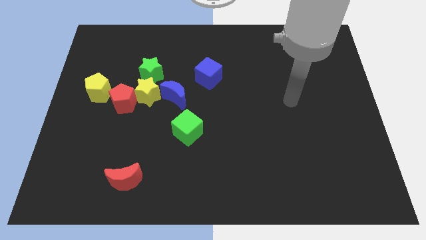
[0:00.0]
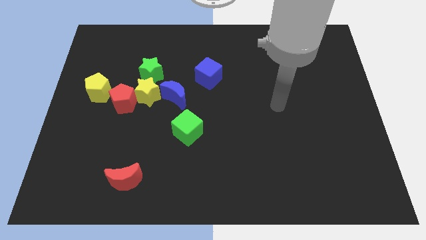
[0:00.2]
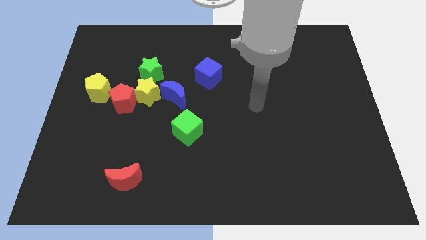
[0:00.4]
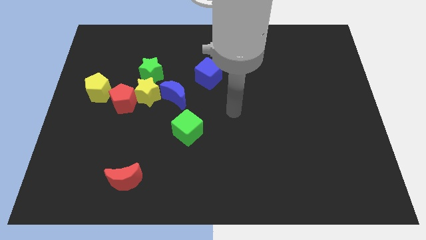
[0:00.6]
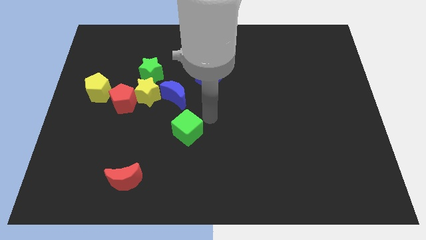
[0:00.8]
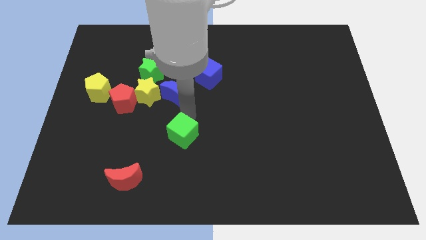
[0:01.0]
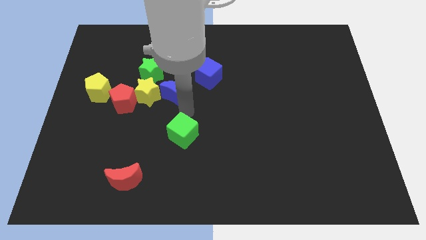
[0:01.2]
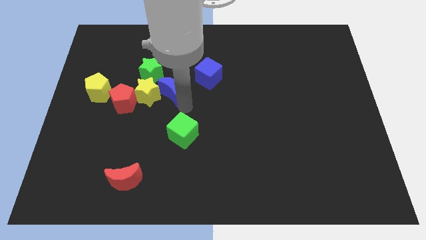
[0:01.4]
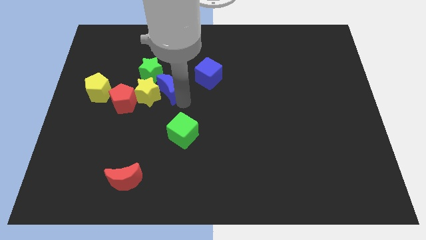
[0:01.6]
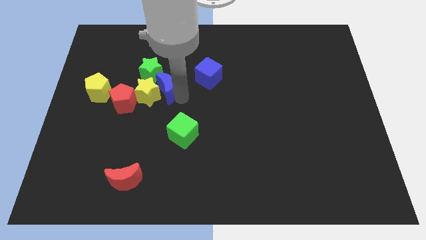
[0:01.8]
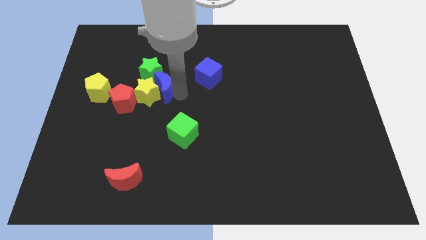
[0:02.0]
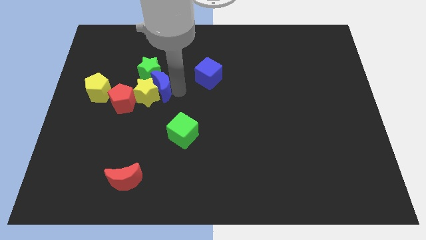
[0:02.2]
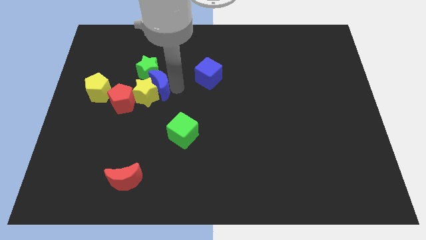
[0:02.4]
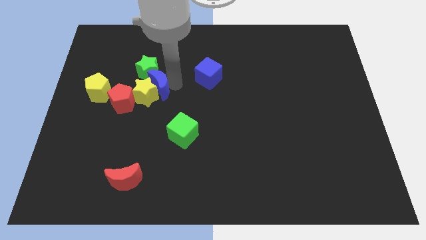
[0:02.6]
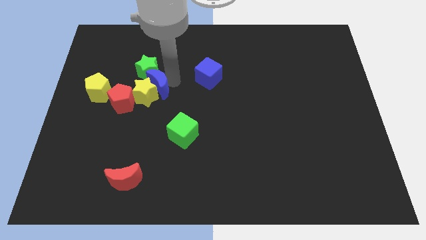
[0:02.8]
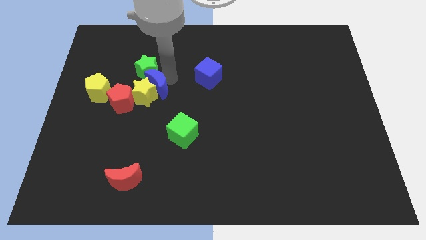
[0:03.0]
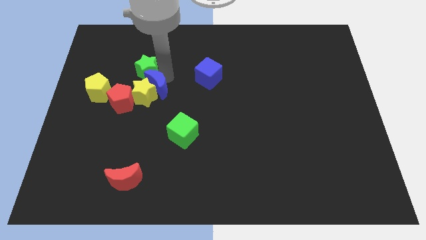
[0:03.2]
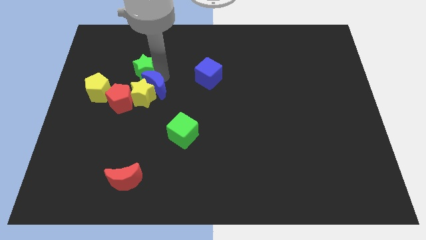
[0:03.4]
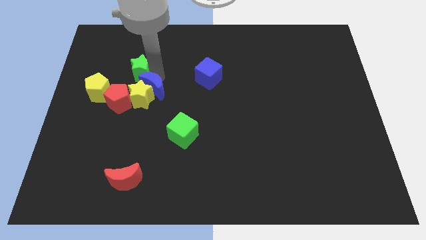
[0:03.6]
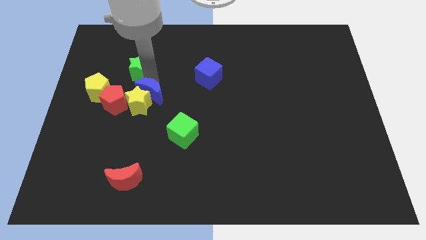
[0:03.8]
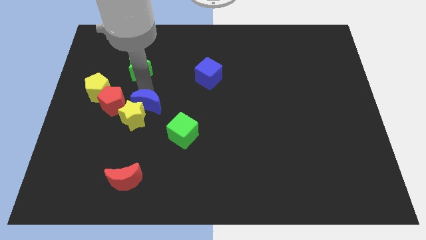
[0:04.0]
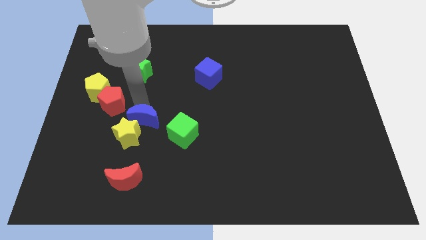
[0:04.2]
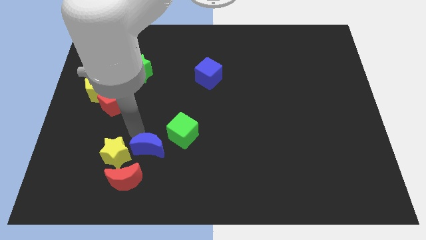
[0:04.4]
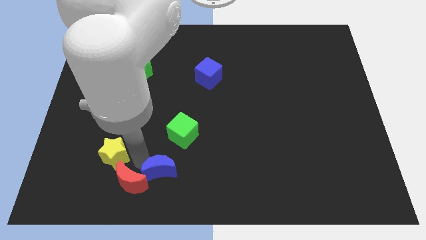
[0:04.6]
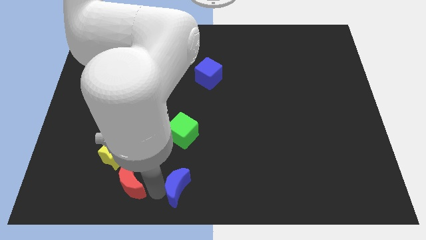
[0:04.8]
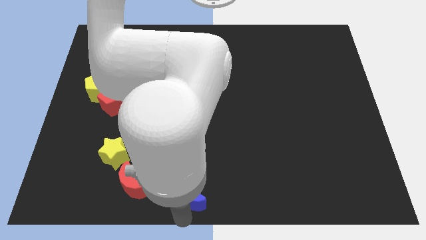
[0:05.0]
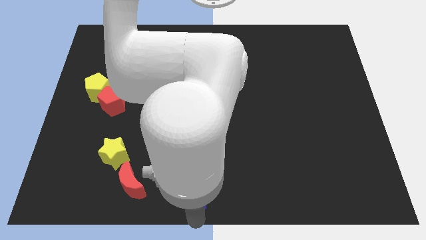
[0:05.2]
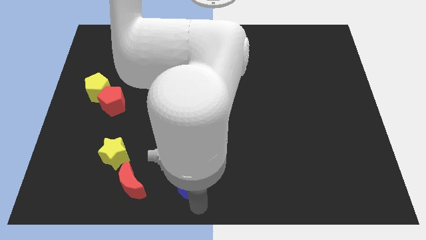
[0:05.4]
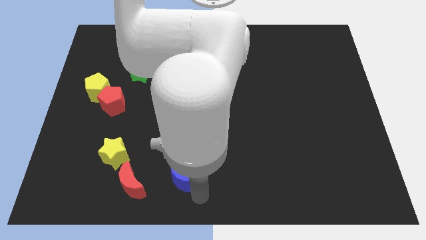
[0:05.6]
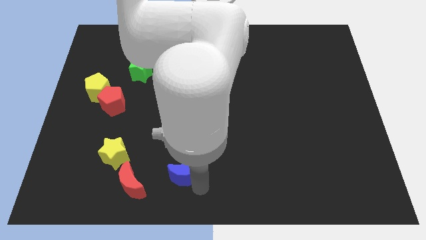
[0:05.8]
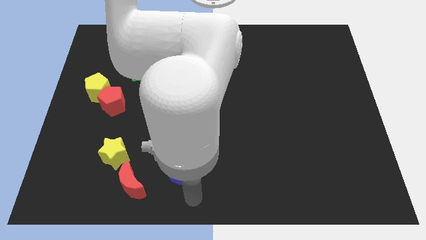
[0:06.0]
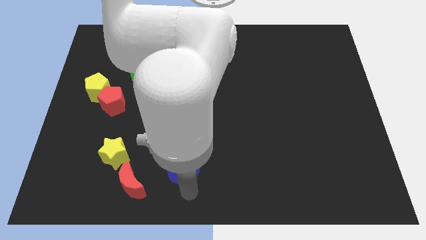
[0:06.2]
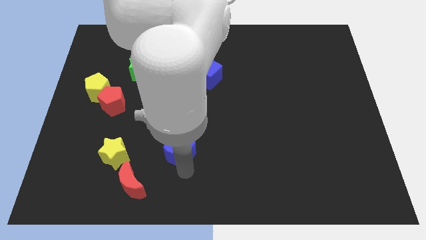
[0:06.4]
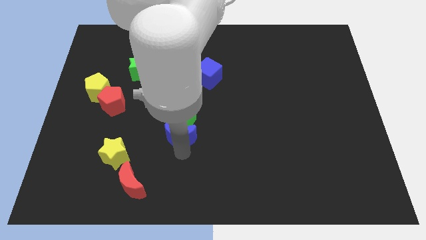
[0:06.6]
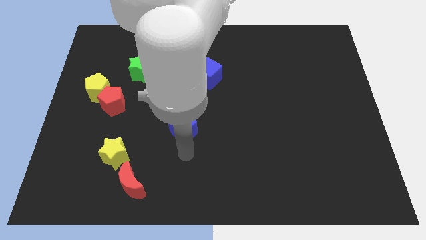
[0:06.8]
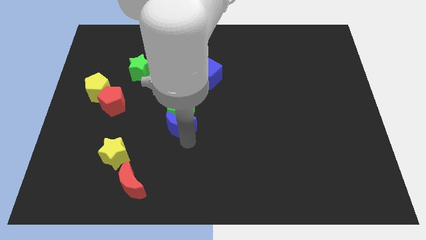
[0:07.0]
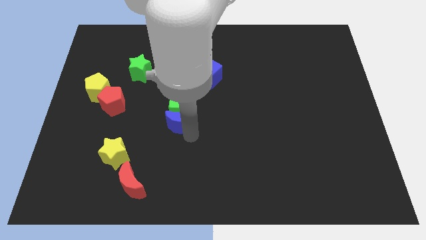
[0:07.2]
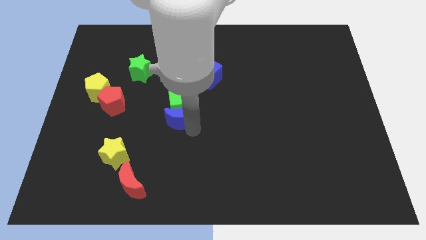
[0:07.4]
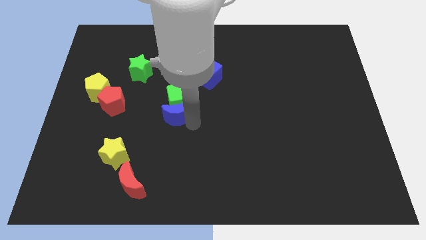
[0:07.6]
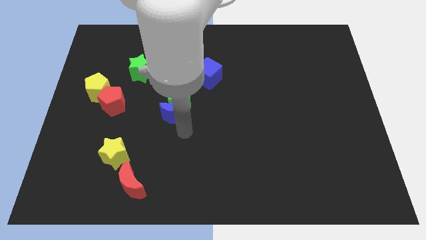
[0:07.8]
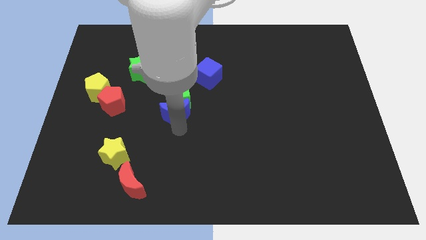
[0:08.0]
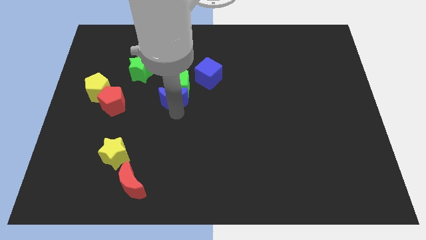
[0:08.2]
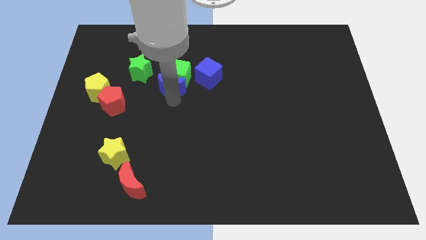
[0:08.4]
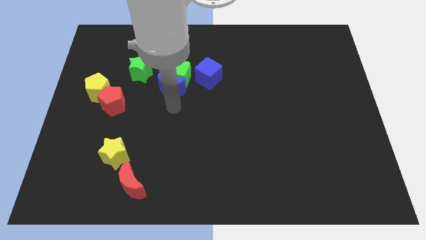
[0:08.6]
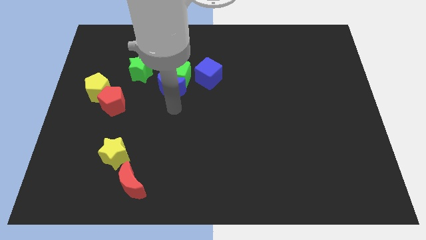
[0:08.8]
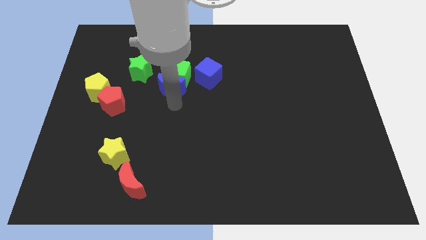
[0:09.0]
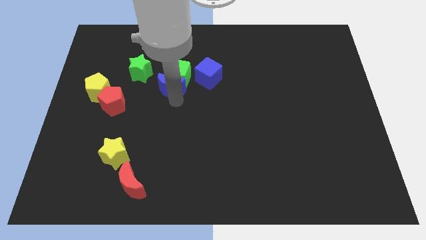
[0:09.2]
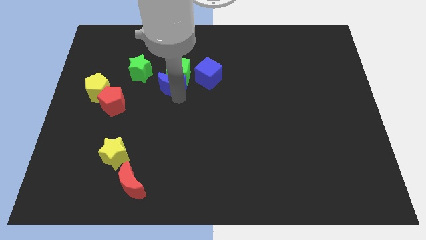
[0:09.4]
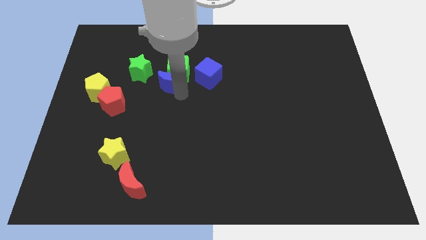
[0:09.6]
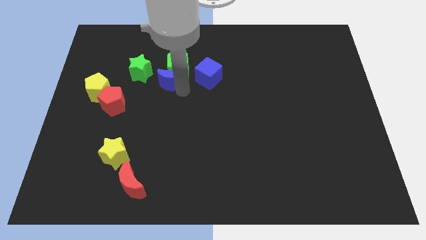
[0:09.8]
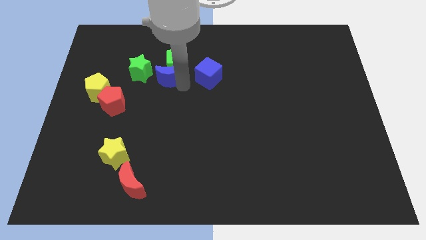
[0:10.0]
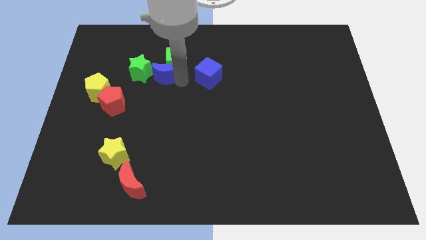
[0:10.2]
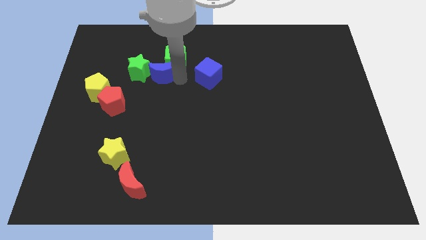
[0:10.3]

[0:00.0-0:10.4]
move the blue moon up and left diagonally a little bit

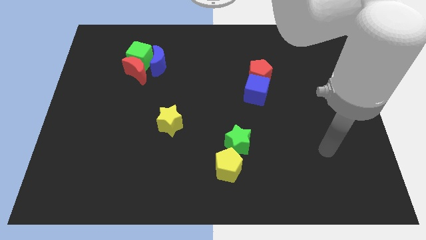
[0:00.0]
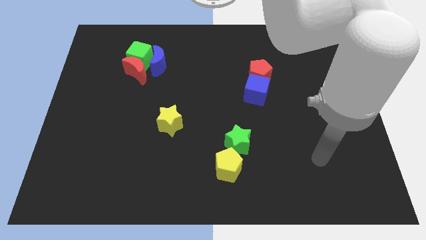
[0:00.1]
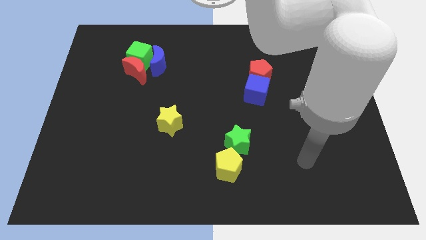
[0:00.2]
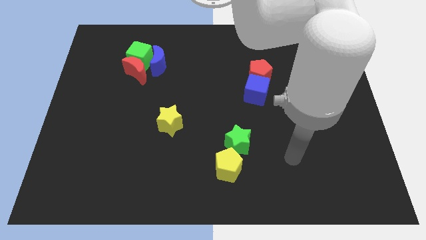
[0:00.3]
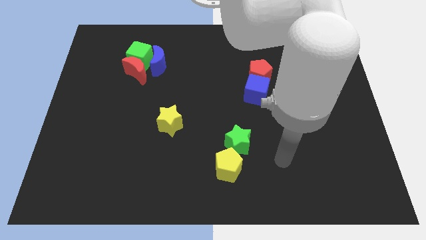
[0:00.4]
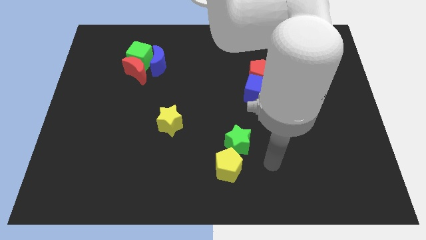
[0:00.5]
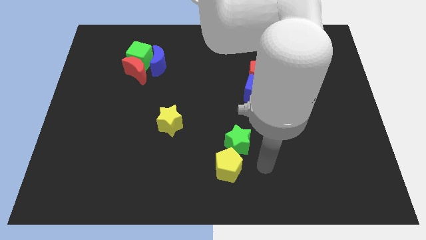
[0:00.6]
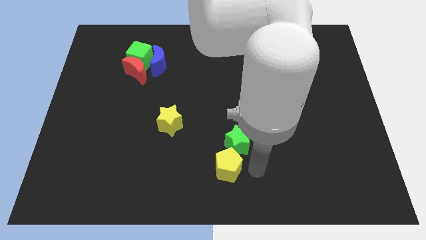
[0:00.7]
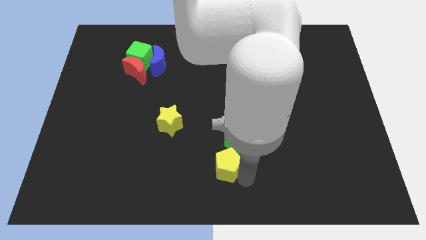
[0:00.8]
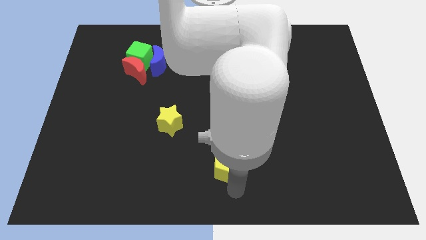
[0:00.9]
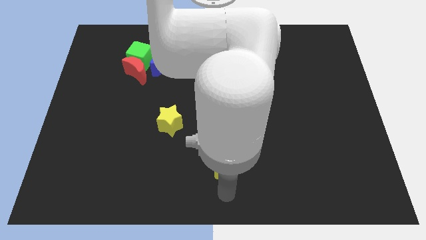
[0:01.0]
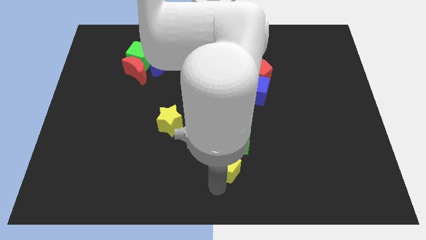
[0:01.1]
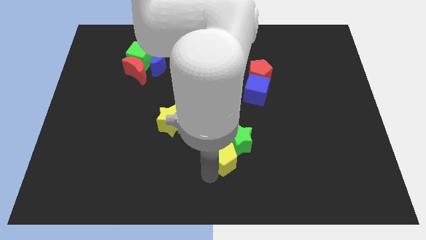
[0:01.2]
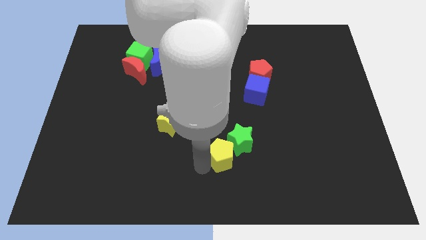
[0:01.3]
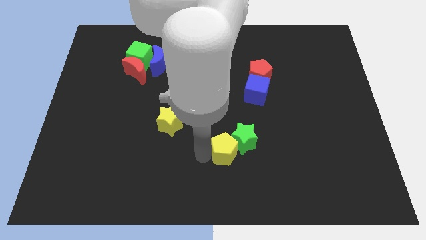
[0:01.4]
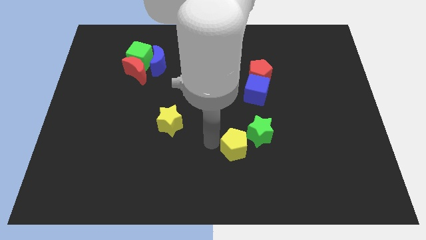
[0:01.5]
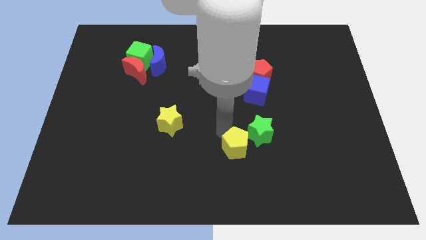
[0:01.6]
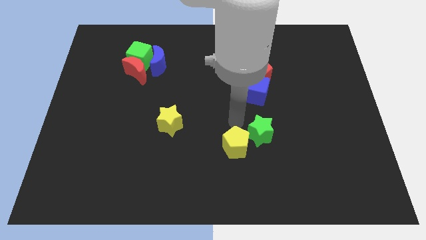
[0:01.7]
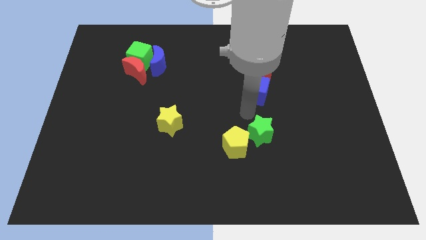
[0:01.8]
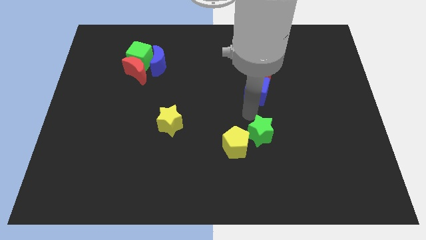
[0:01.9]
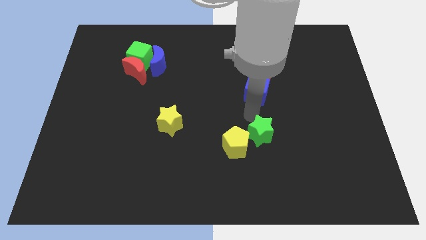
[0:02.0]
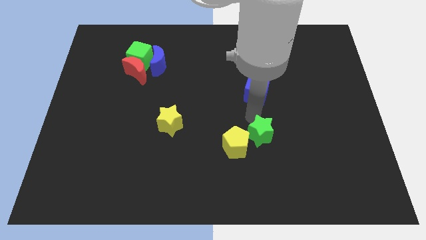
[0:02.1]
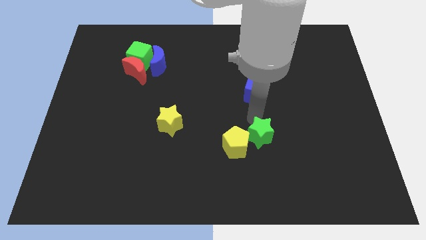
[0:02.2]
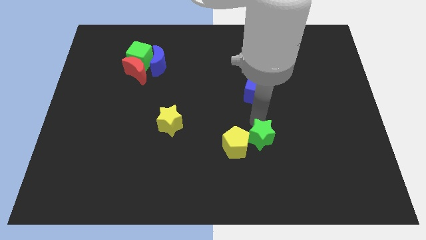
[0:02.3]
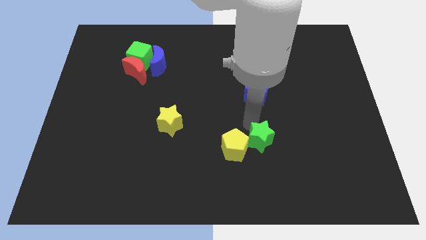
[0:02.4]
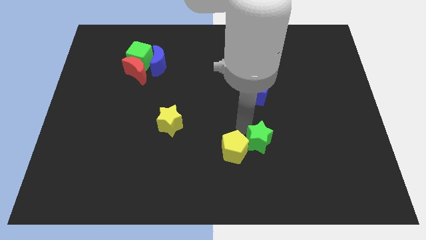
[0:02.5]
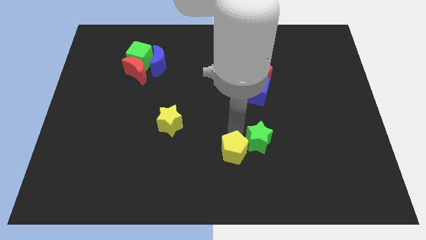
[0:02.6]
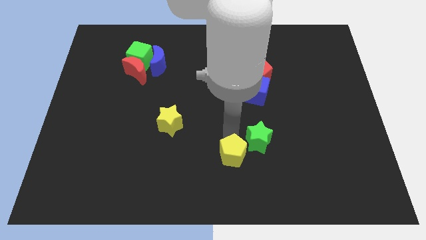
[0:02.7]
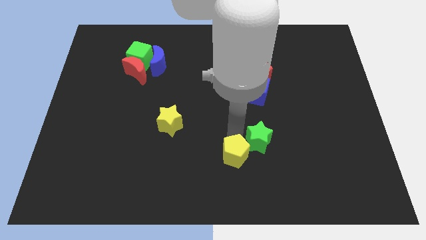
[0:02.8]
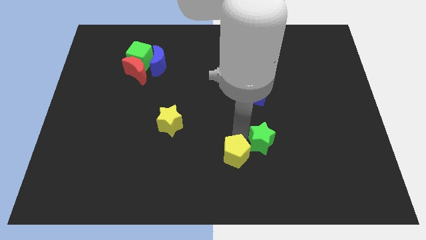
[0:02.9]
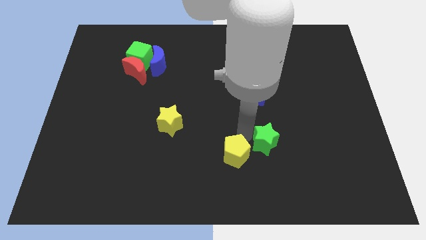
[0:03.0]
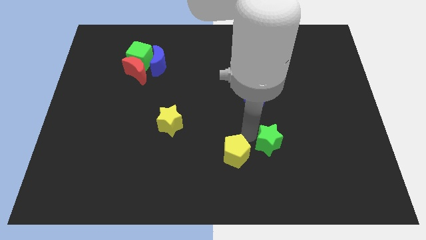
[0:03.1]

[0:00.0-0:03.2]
slide the green star to the right somewhat
